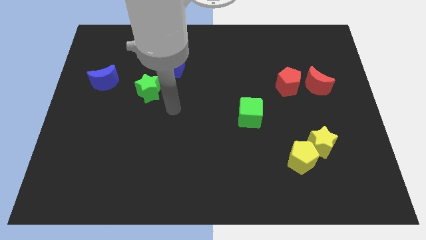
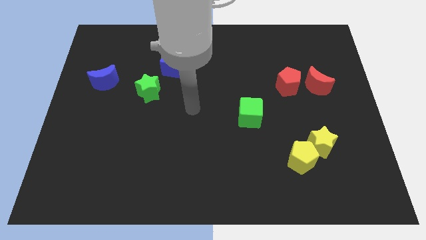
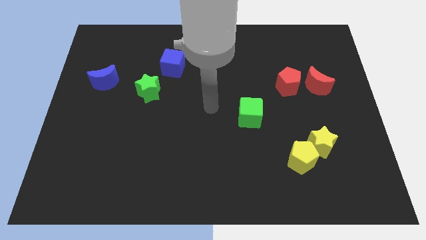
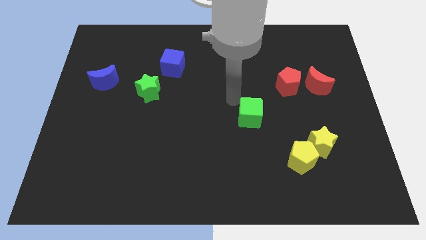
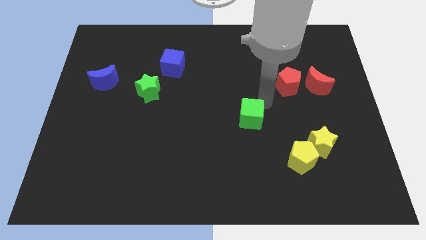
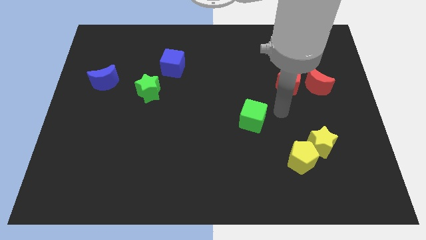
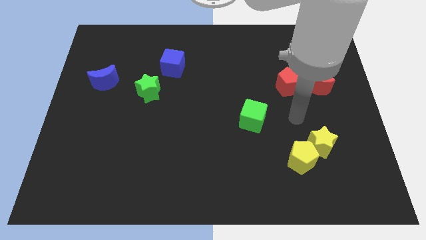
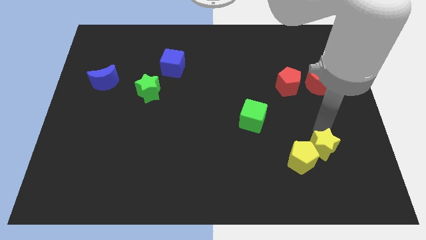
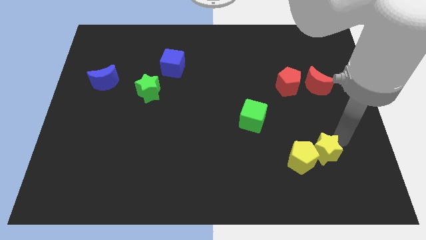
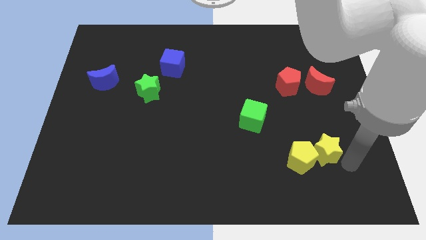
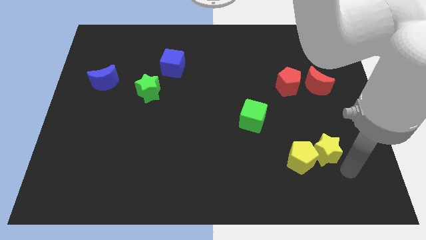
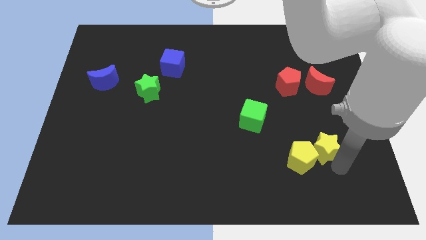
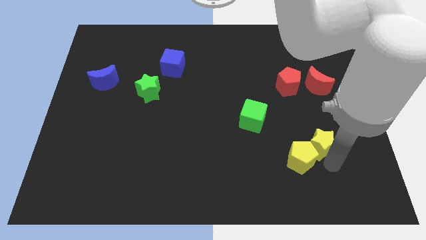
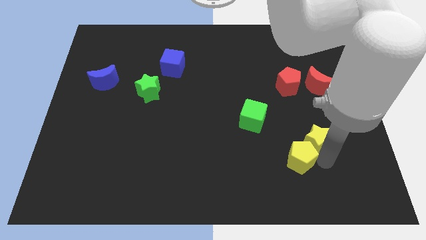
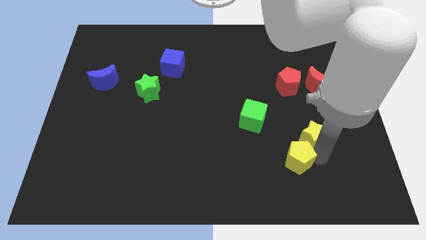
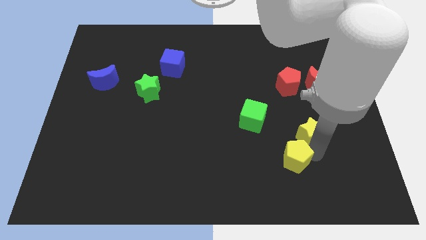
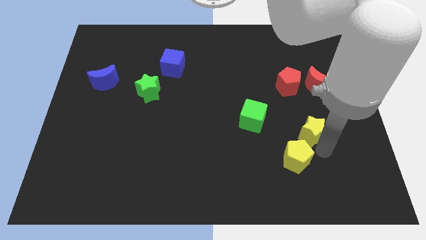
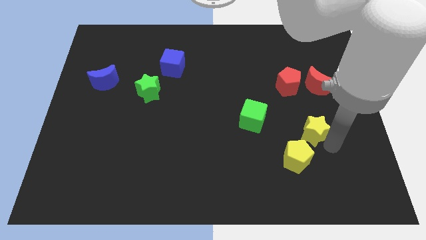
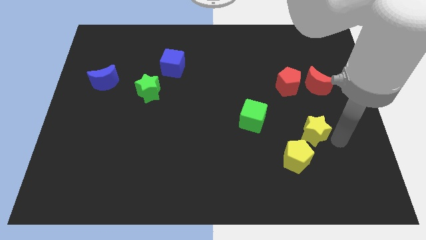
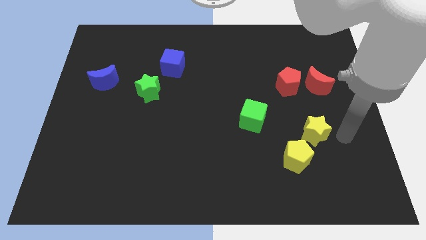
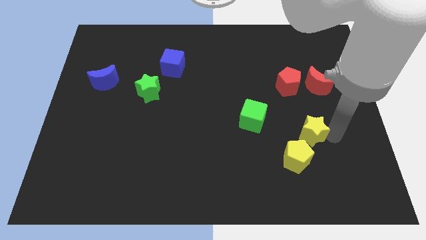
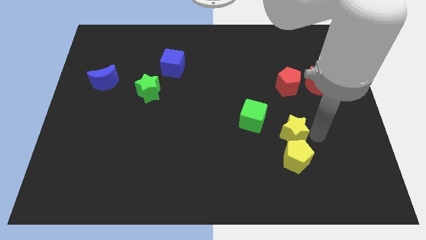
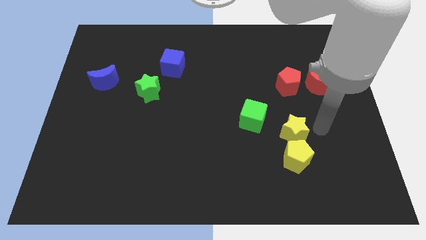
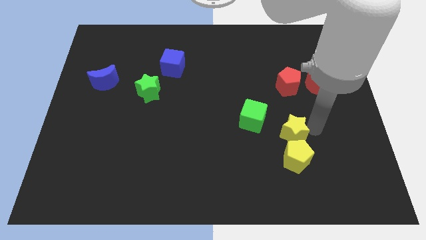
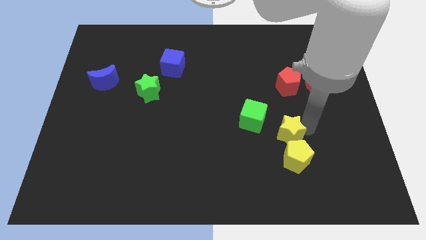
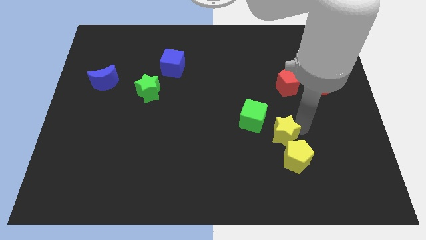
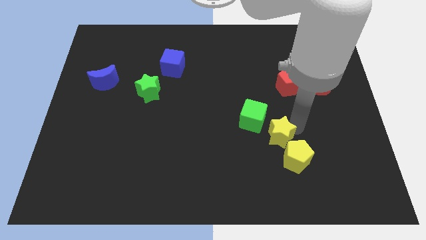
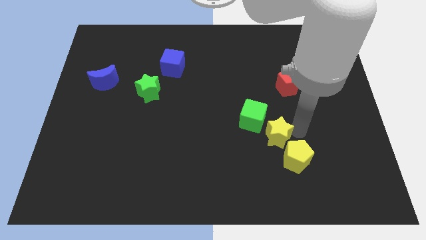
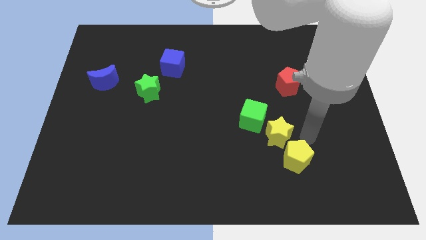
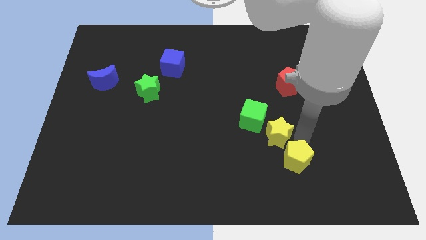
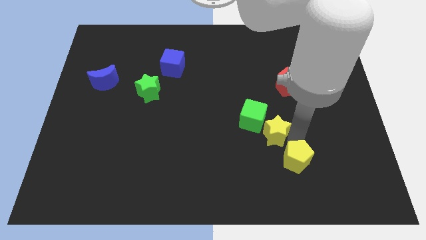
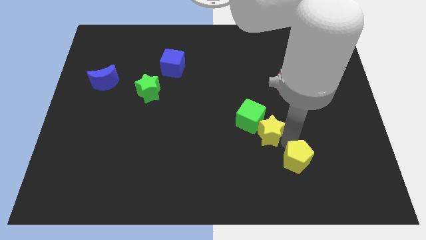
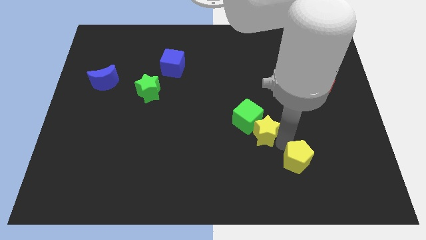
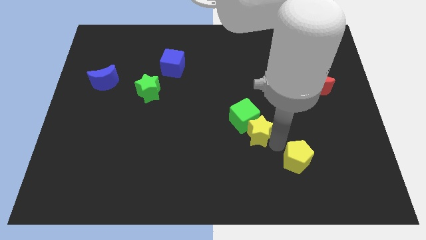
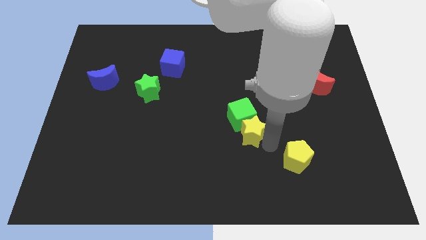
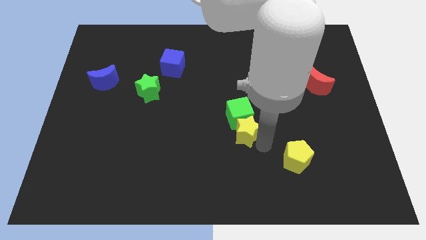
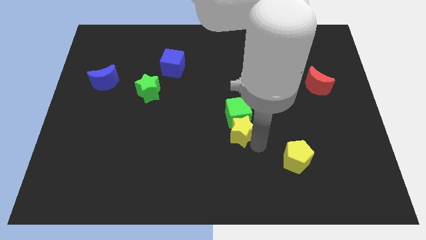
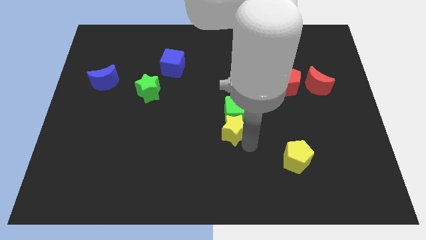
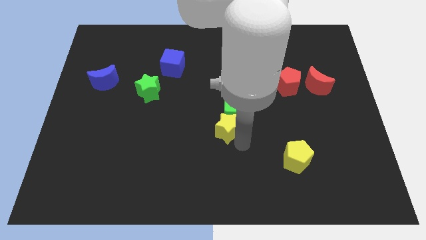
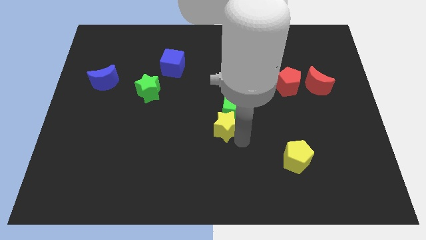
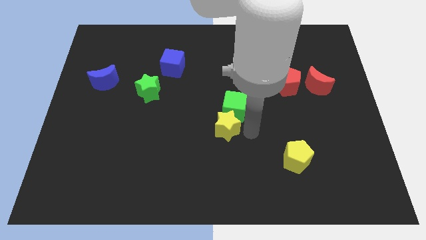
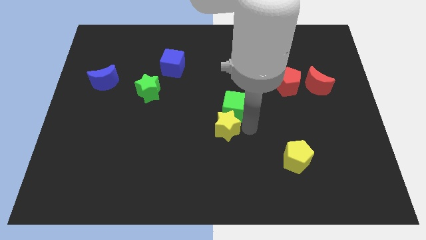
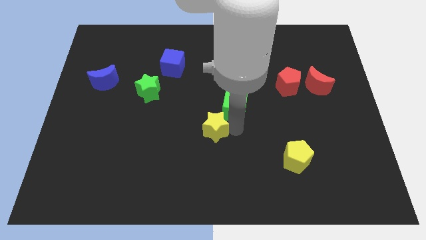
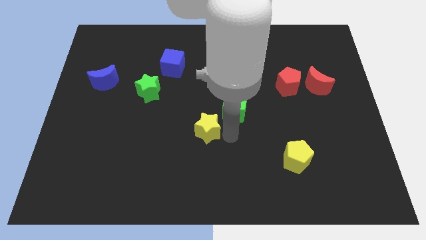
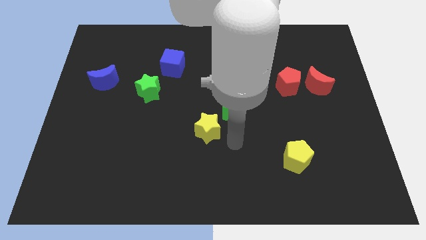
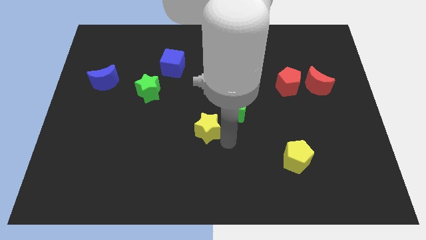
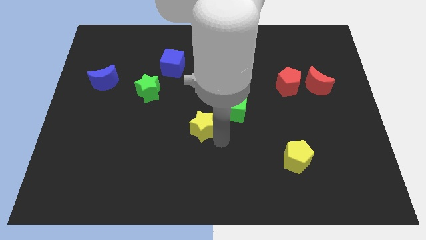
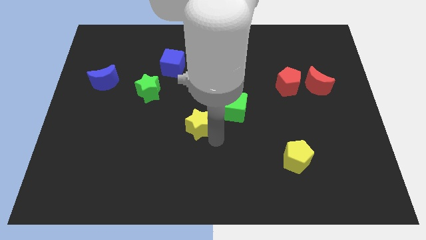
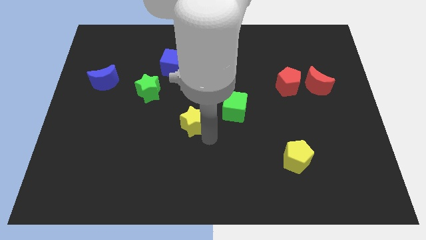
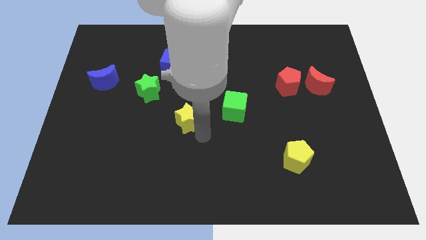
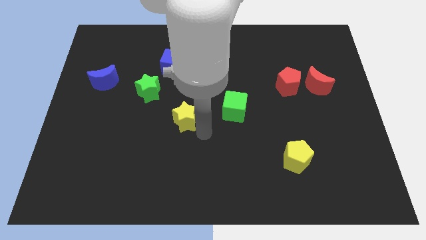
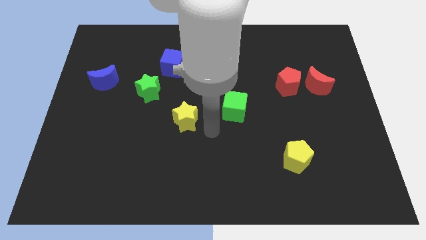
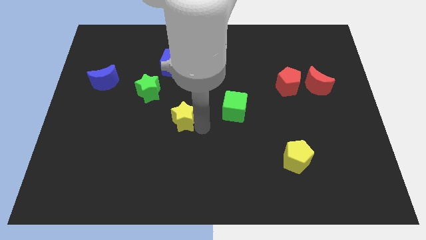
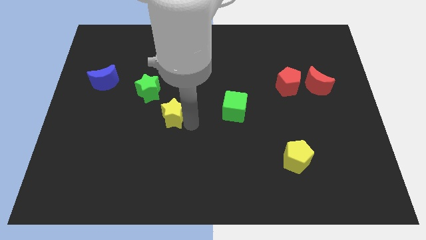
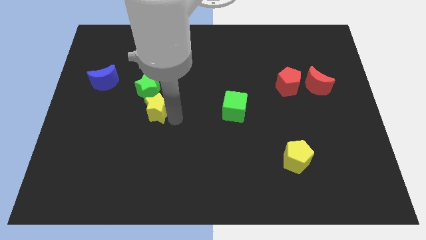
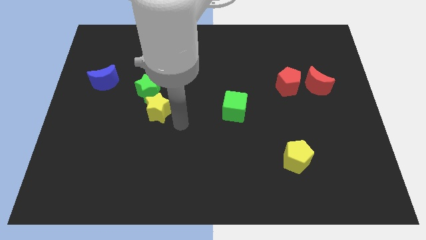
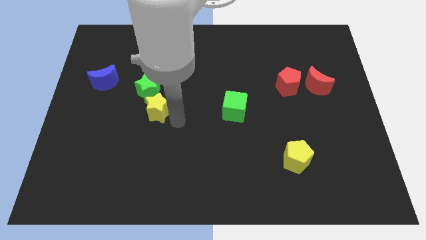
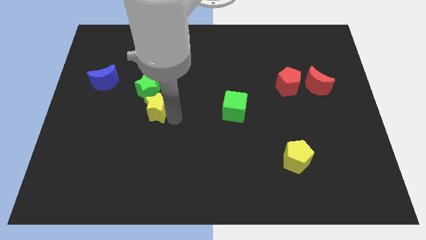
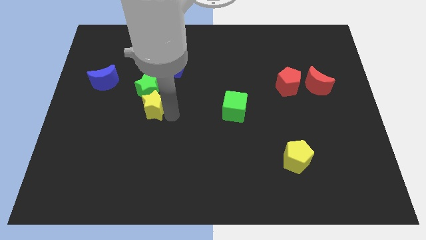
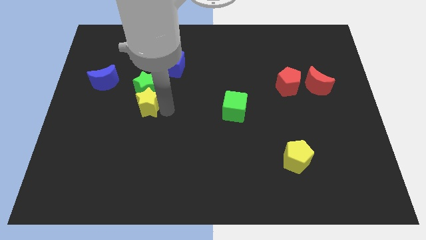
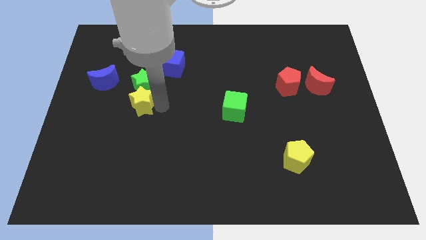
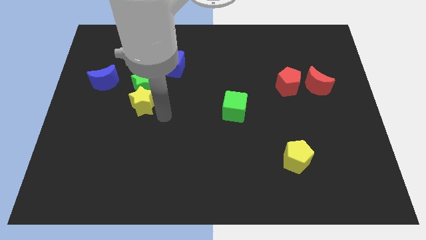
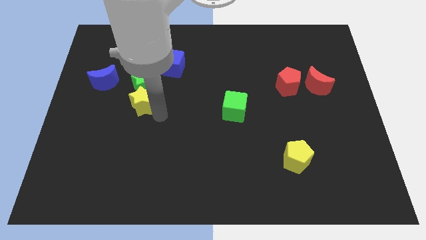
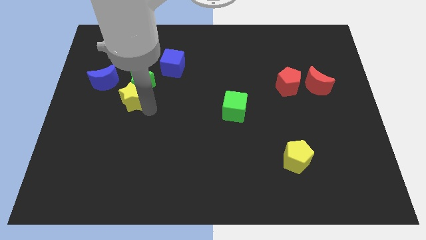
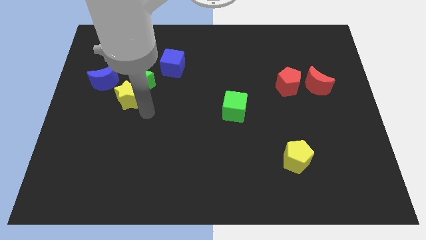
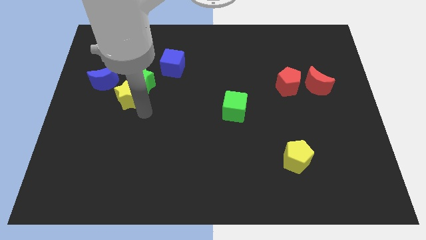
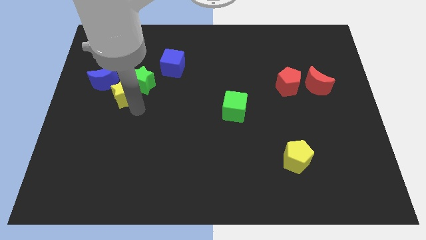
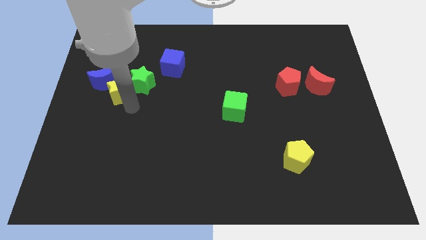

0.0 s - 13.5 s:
push the yellow star next to the blue moon

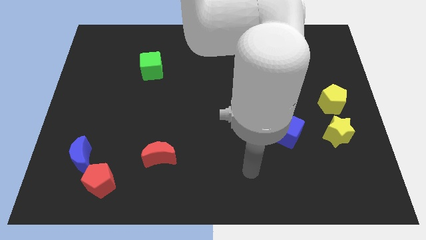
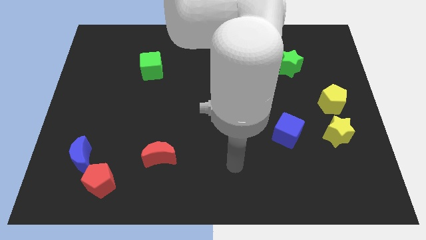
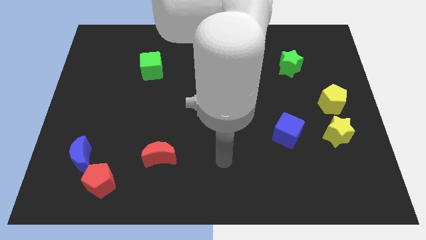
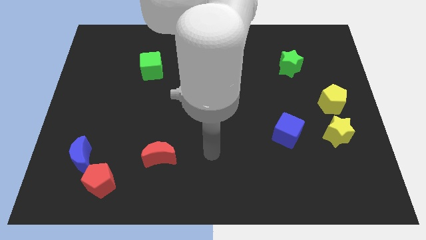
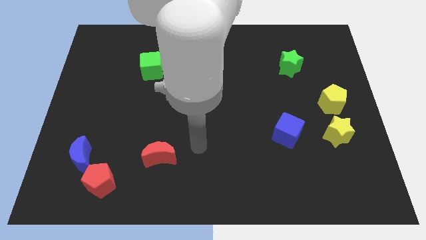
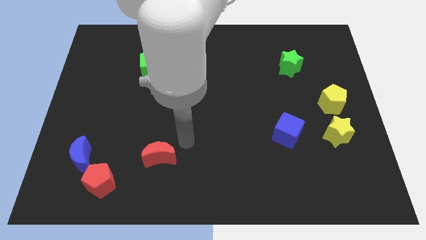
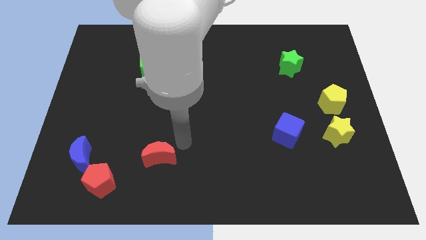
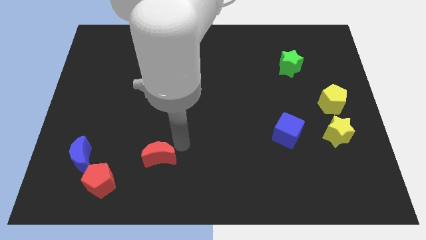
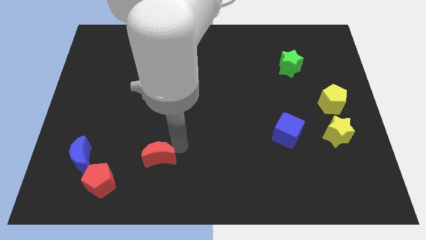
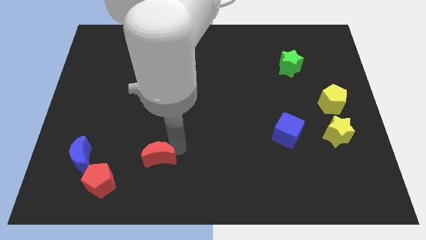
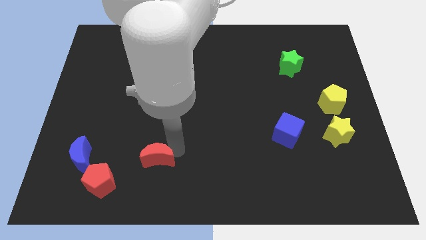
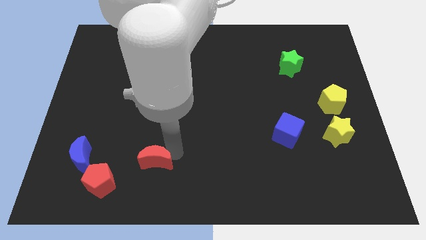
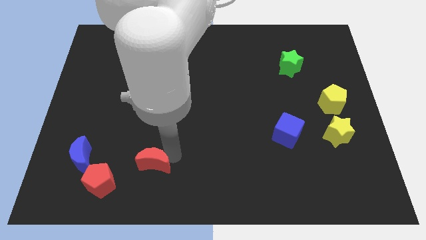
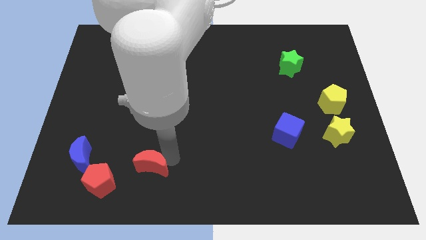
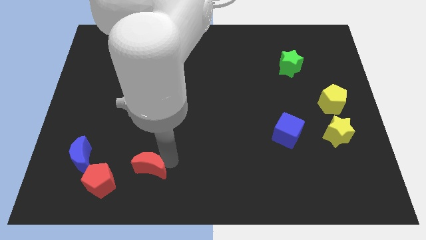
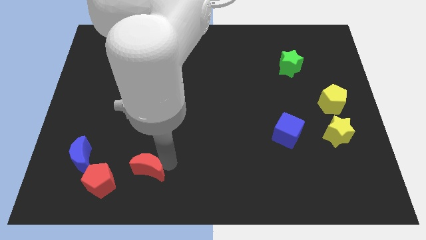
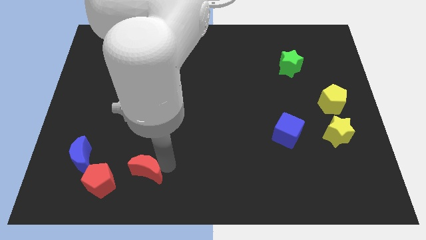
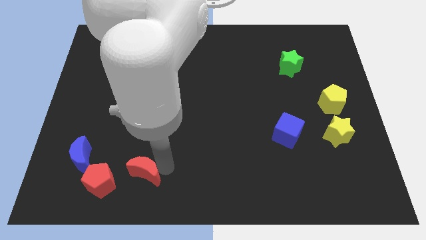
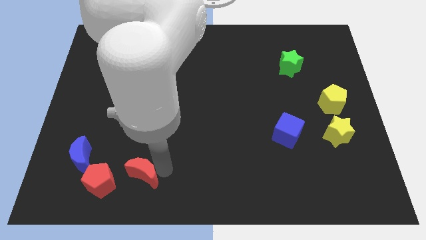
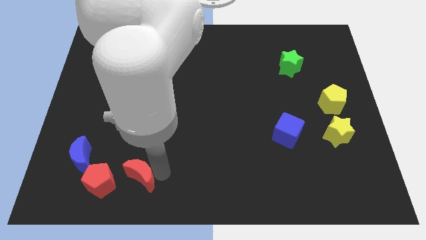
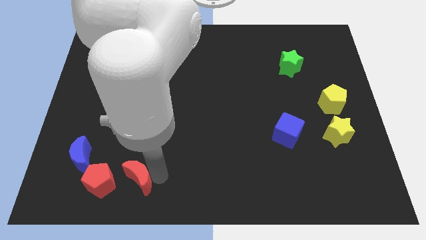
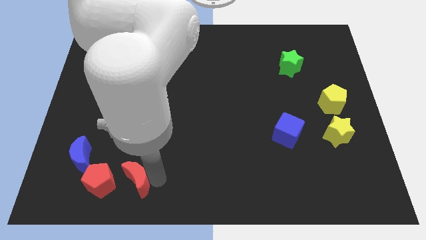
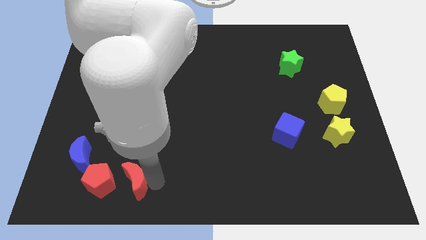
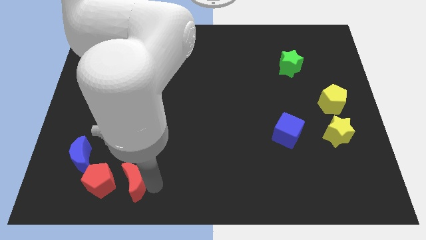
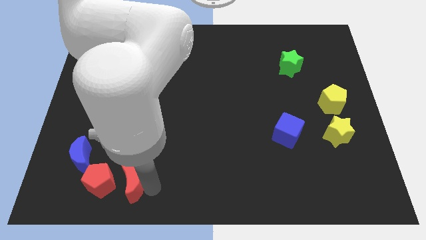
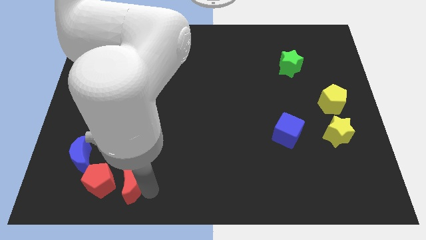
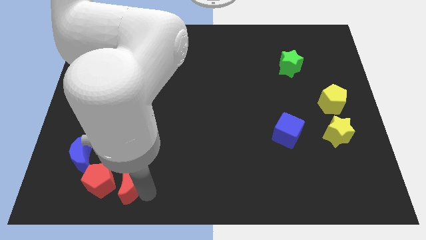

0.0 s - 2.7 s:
push the red moon next to the red pentagon
